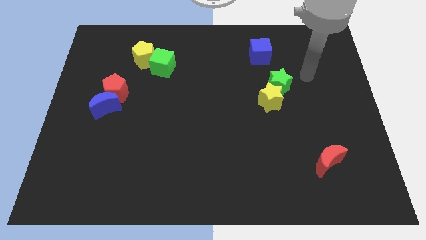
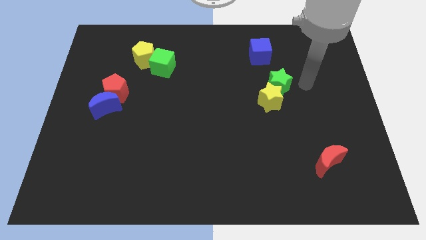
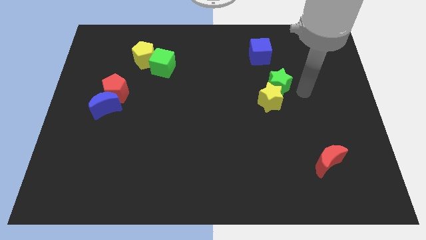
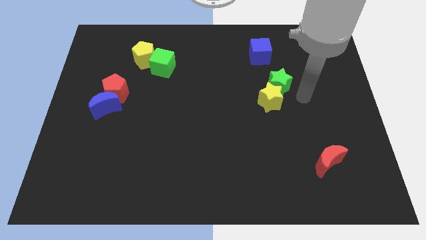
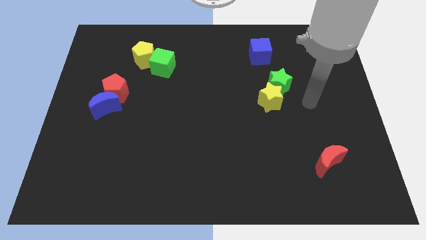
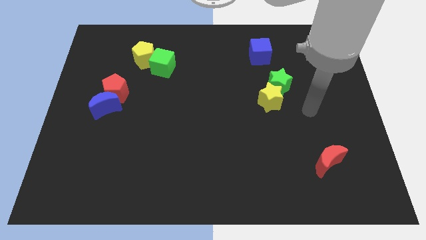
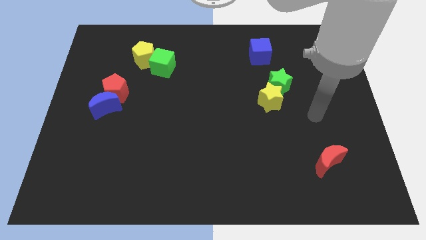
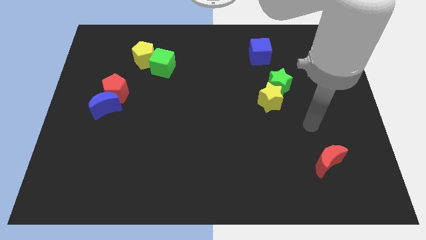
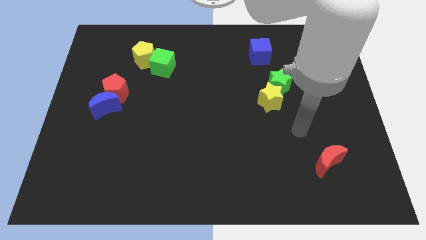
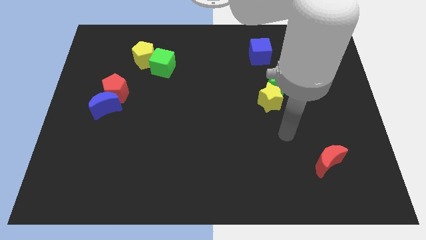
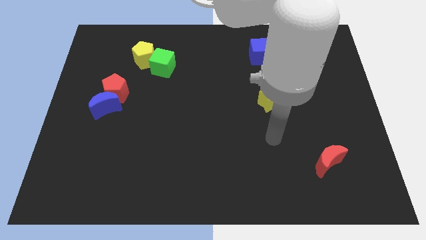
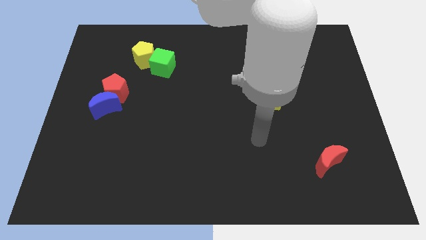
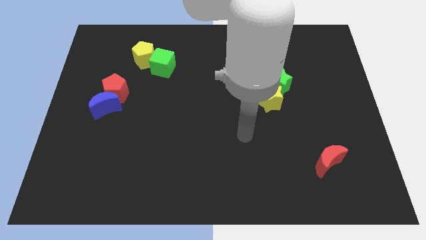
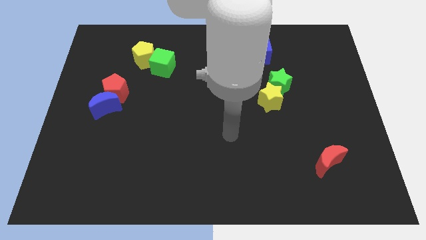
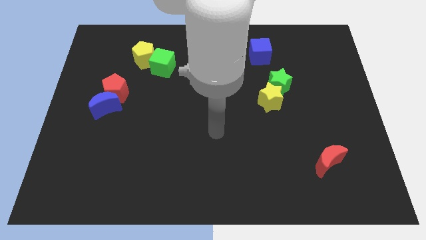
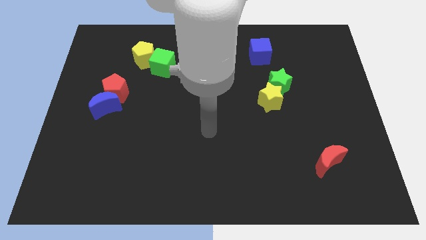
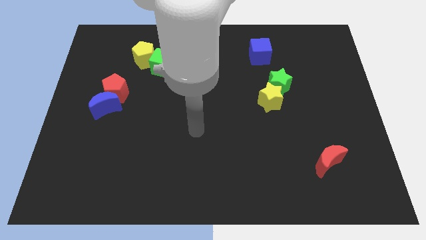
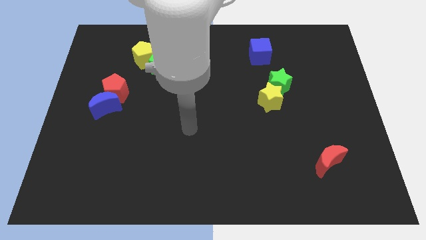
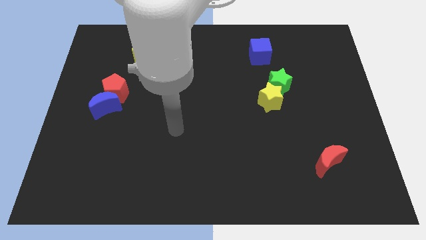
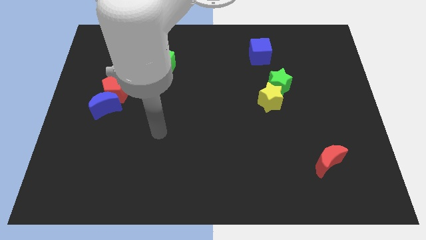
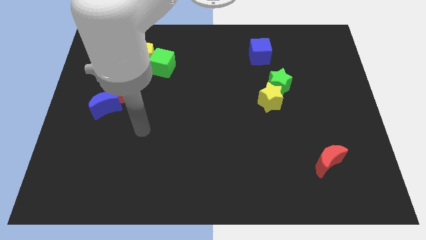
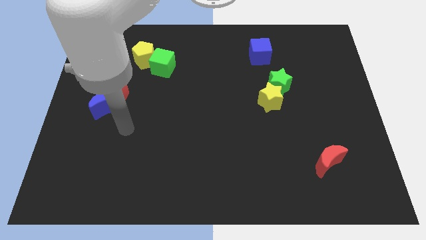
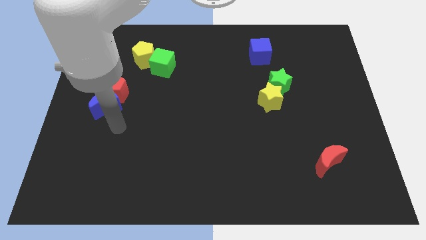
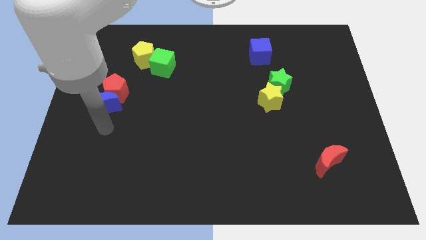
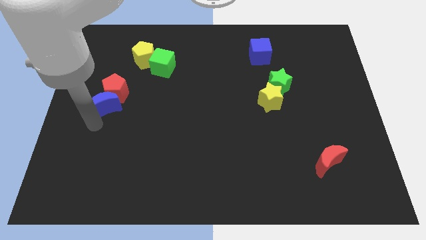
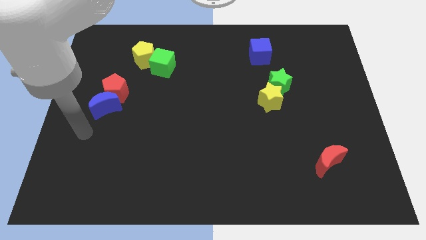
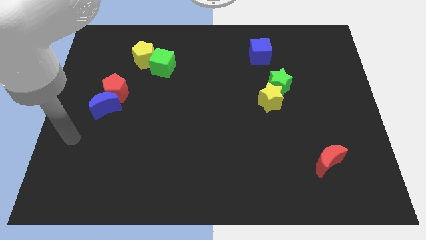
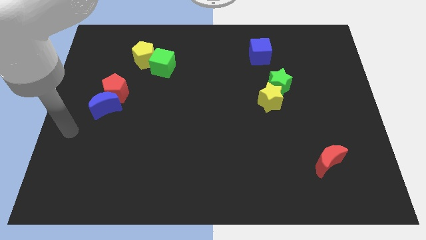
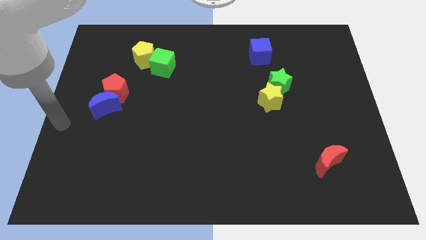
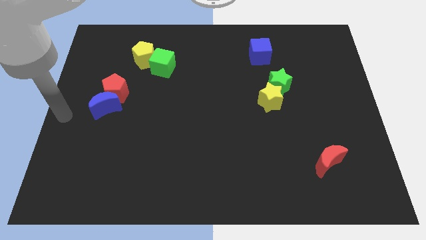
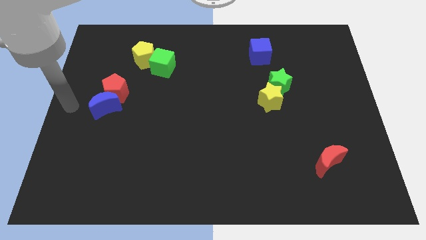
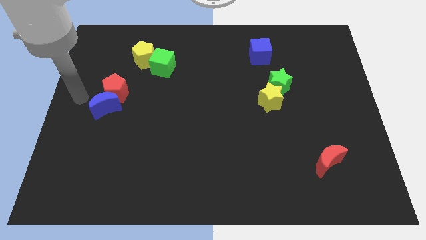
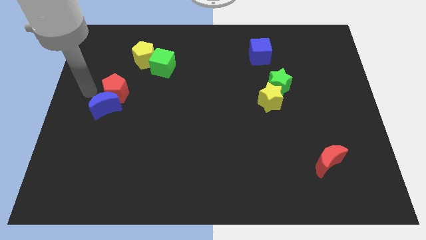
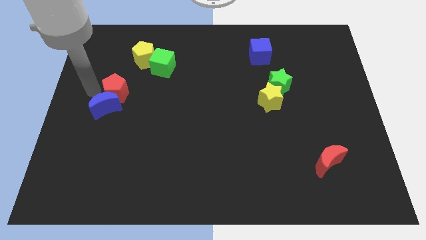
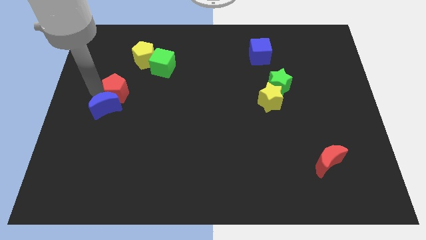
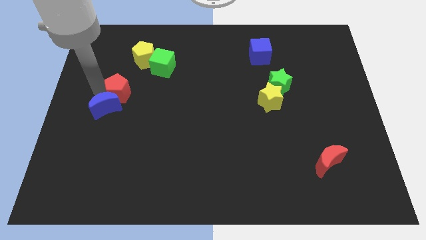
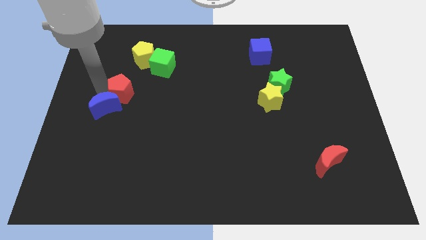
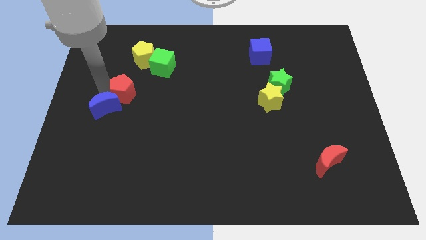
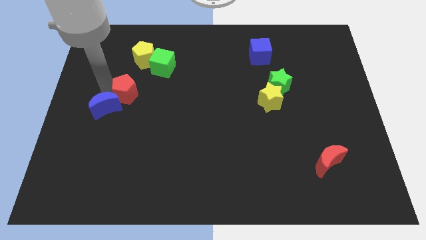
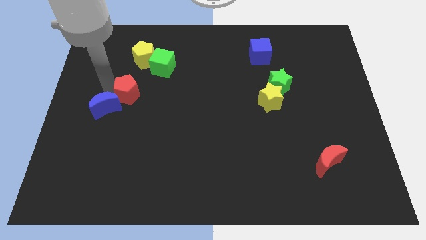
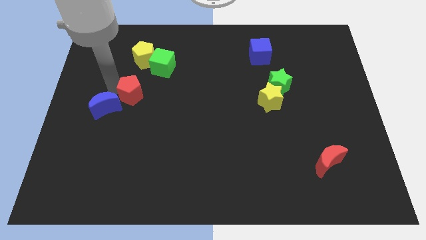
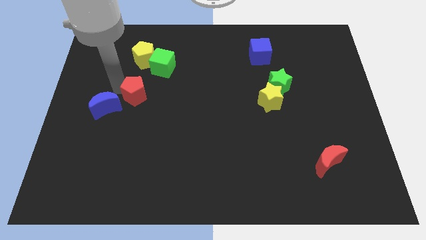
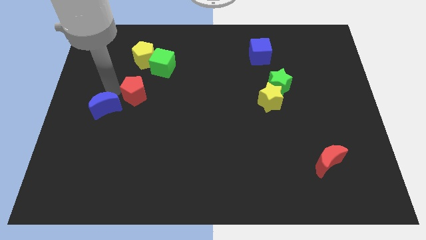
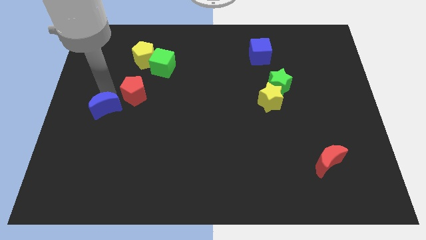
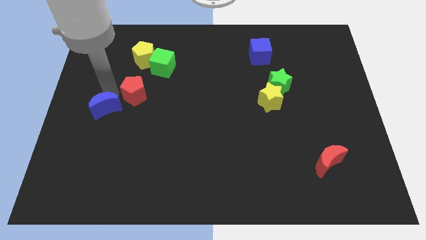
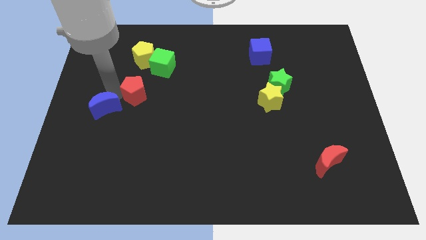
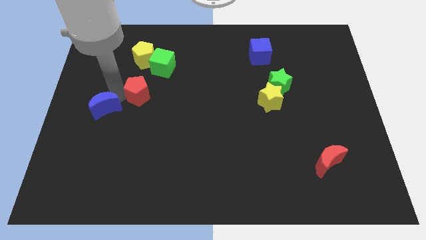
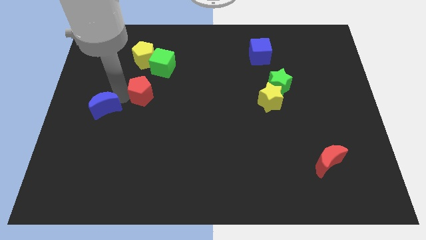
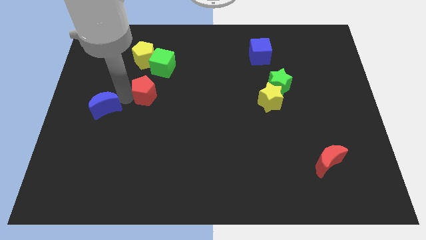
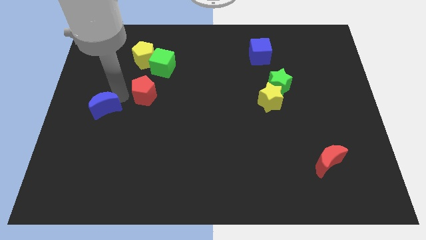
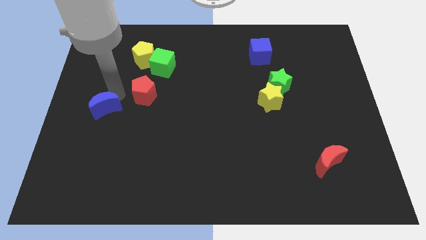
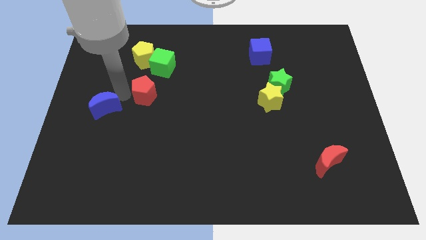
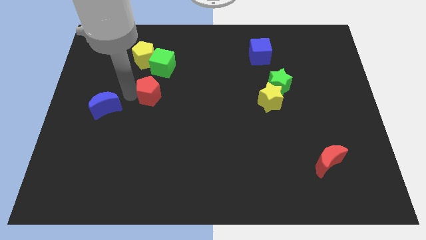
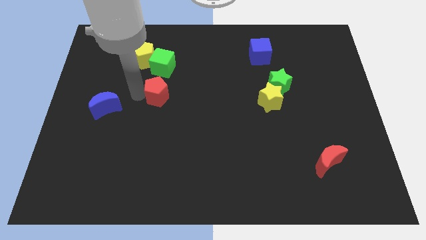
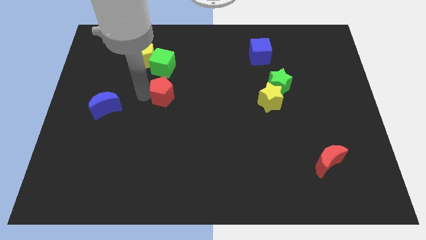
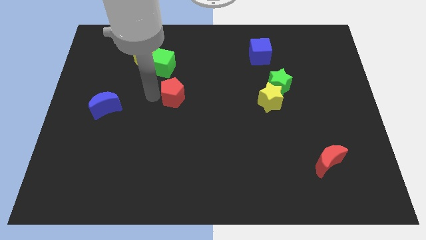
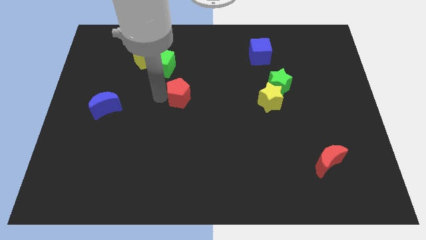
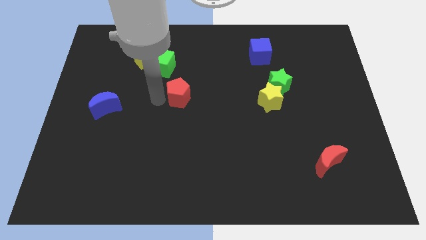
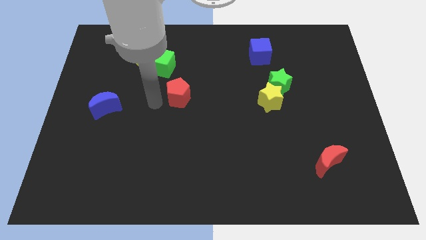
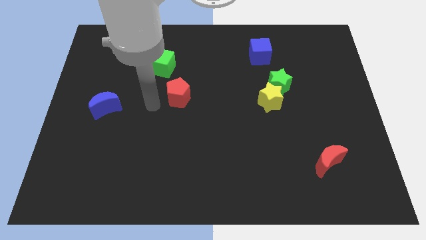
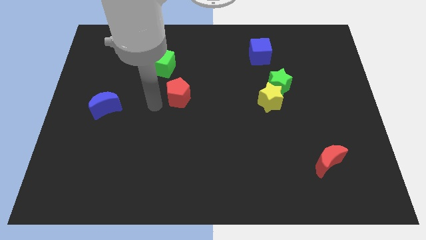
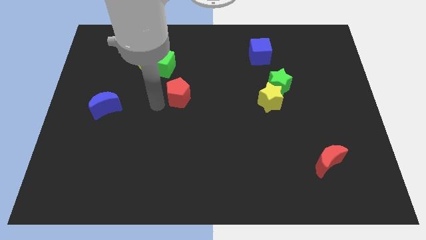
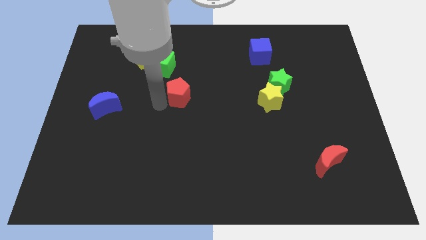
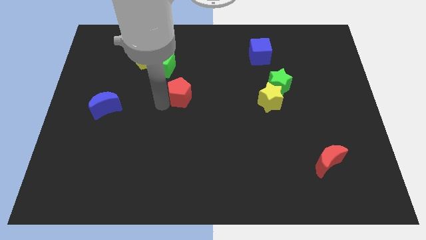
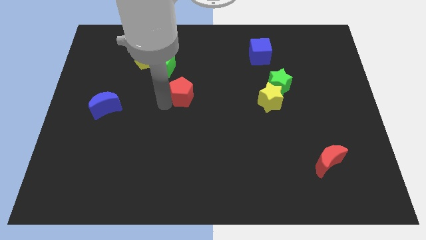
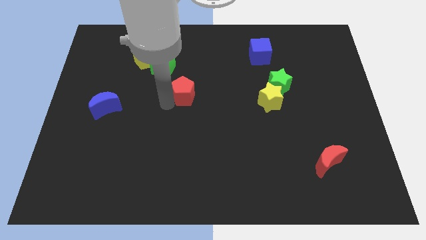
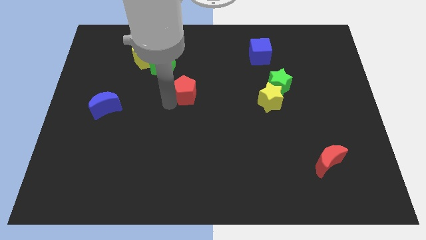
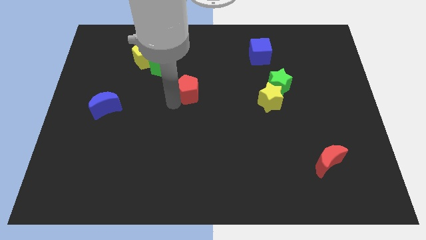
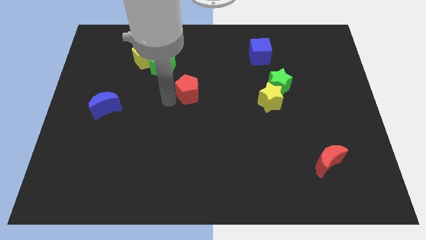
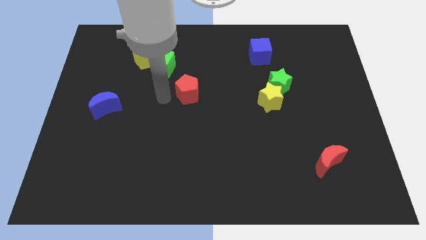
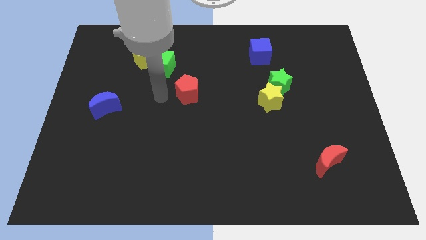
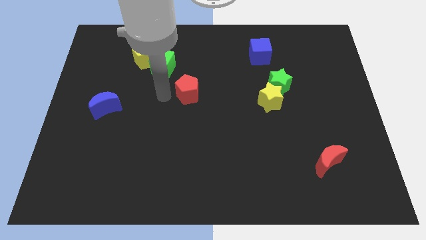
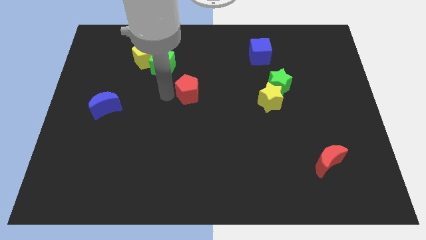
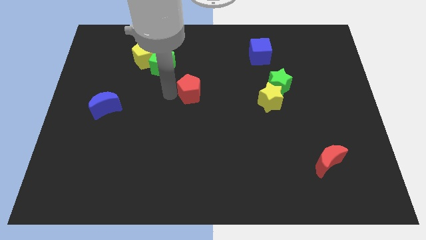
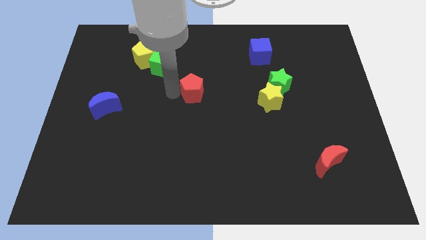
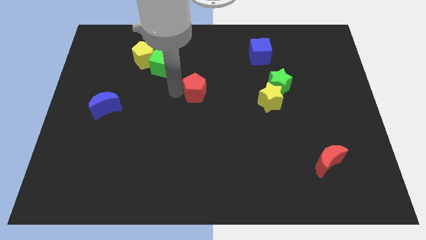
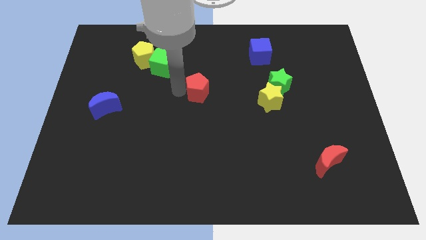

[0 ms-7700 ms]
slide the red pentagon right

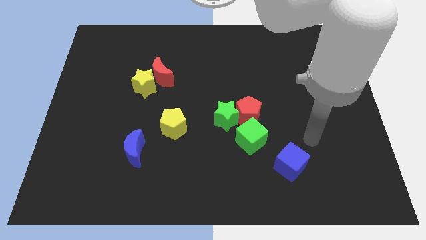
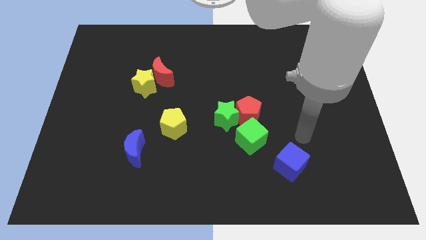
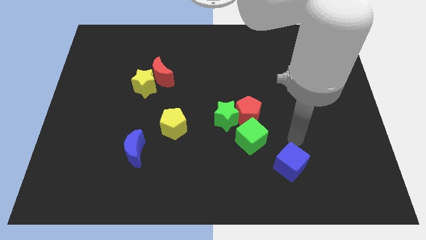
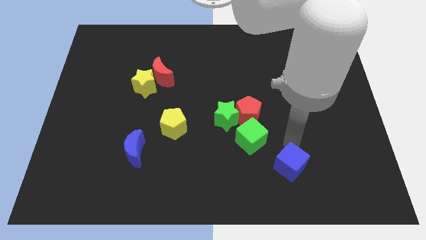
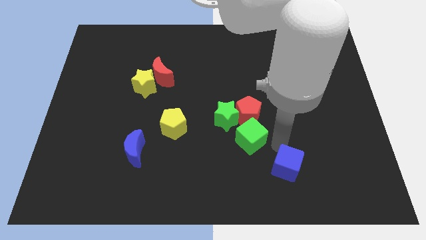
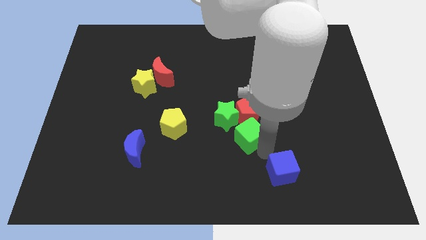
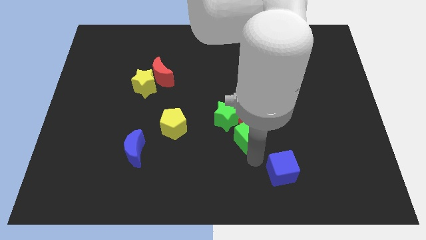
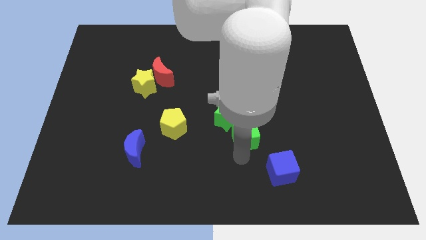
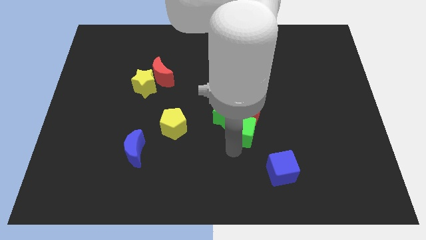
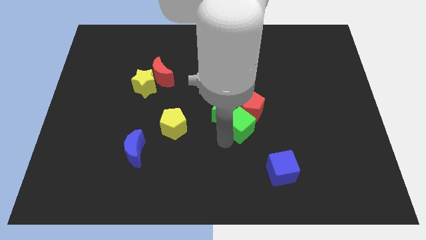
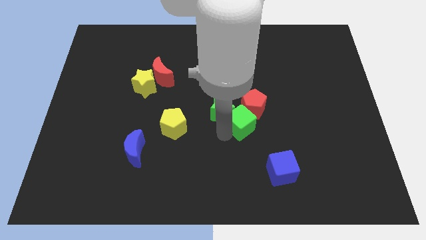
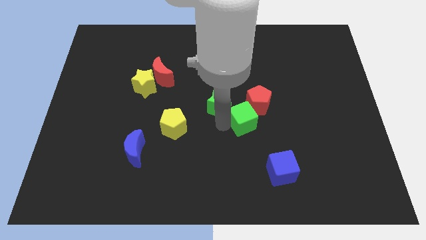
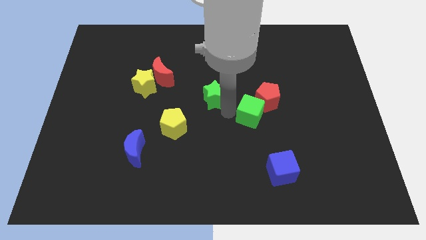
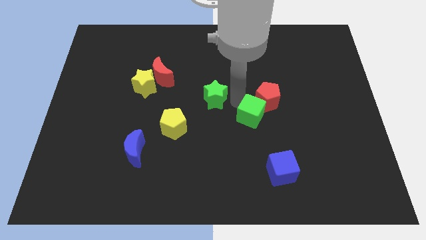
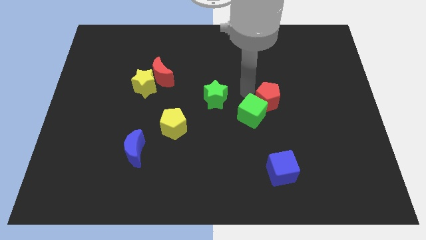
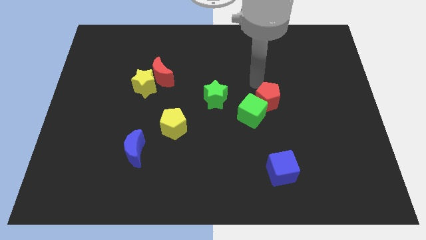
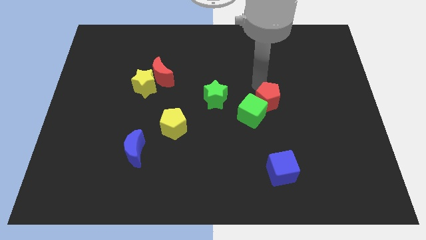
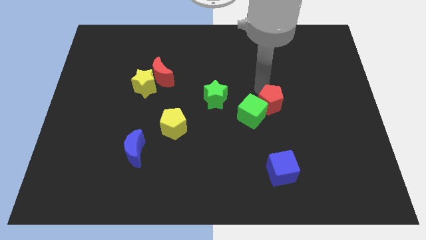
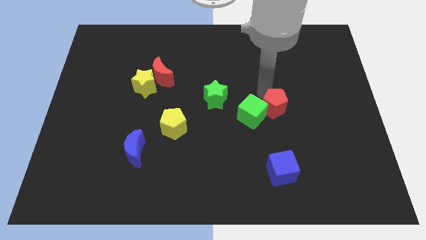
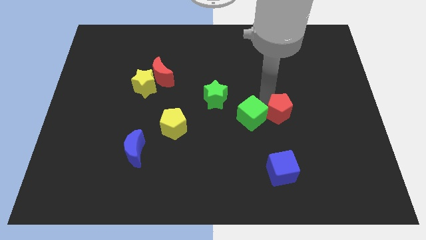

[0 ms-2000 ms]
move the red pentagon a little right
